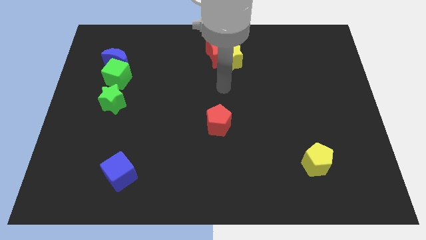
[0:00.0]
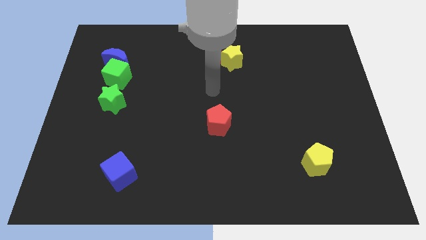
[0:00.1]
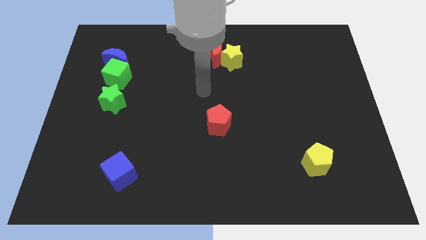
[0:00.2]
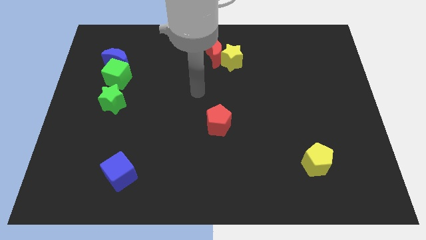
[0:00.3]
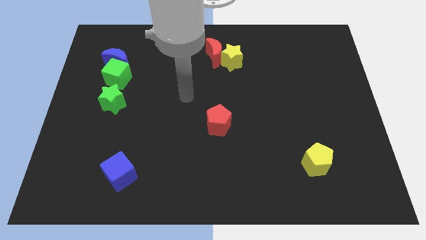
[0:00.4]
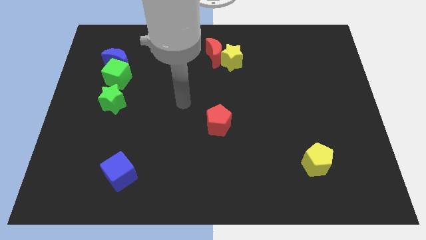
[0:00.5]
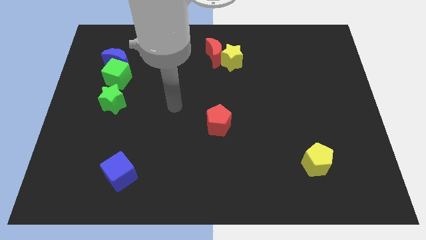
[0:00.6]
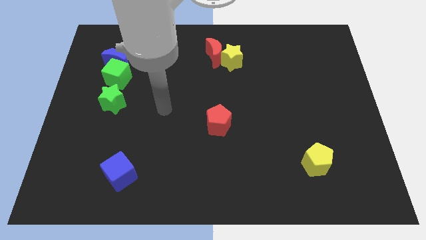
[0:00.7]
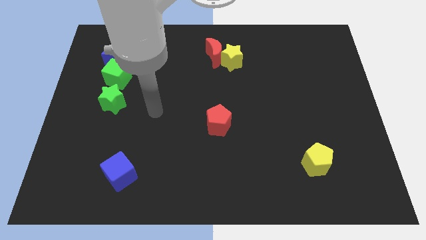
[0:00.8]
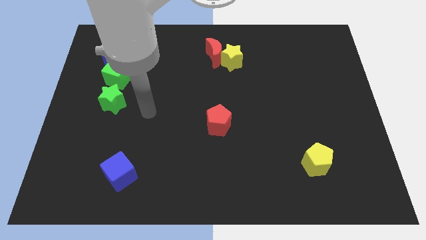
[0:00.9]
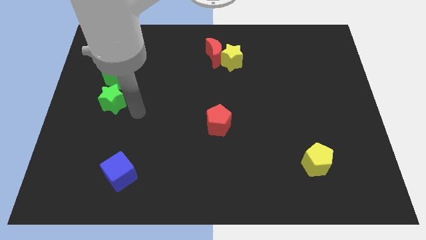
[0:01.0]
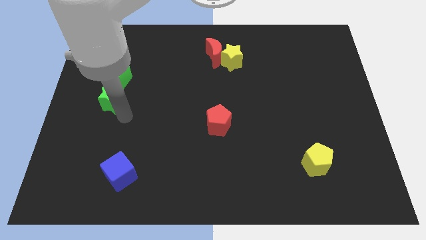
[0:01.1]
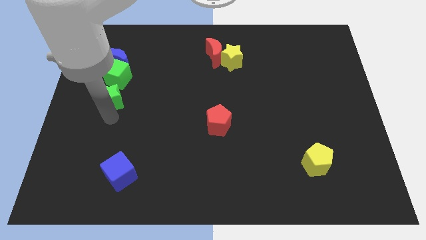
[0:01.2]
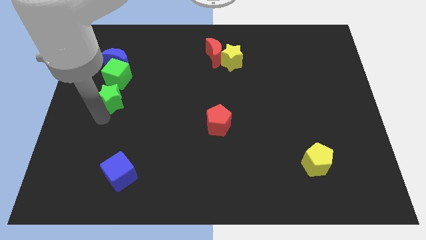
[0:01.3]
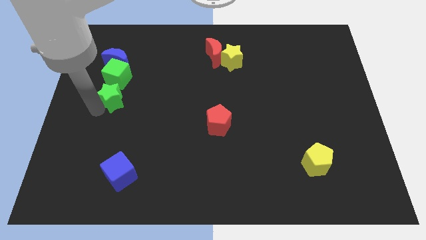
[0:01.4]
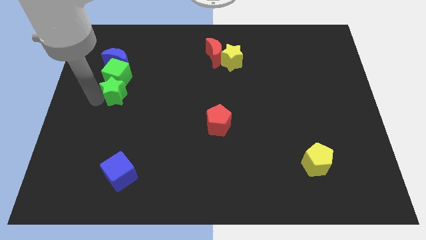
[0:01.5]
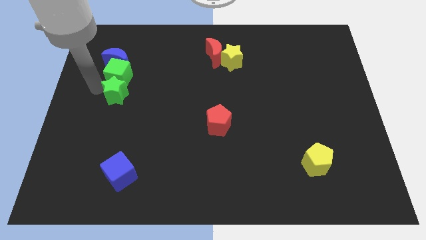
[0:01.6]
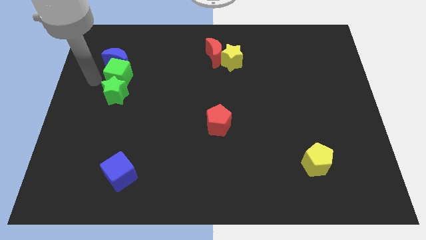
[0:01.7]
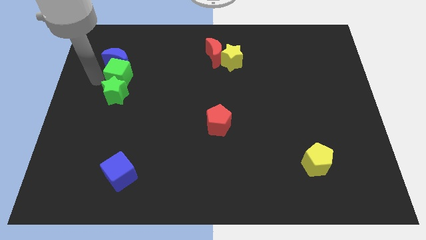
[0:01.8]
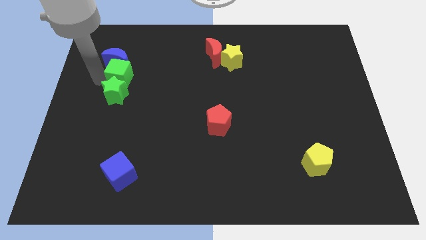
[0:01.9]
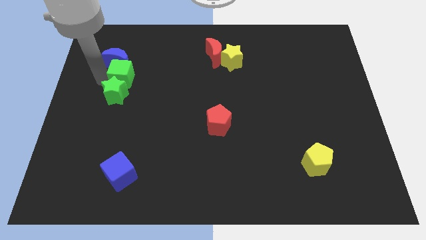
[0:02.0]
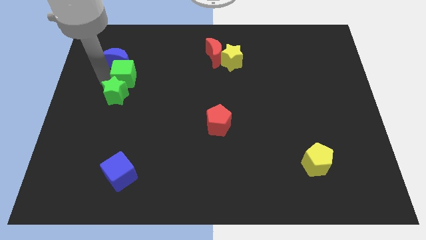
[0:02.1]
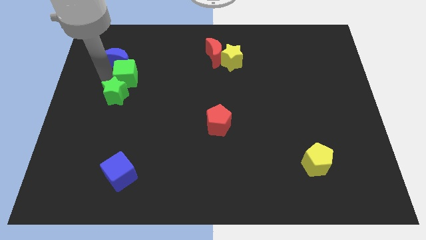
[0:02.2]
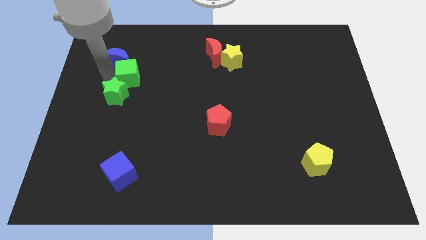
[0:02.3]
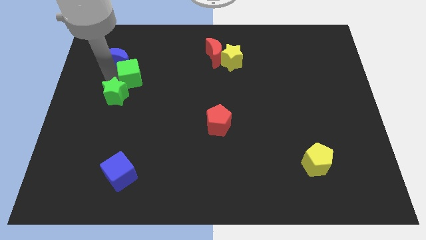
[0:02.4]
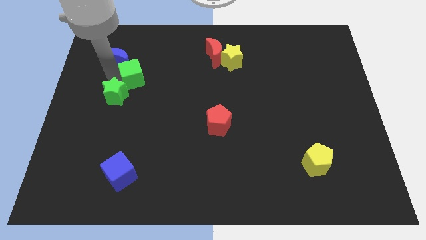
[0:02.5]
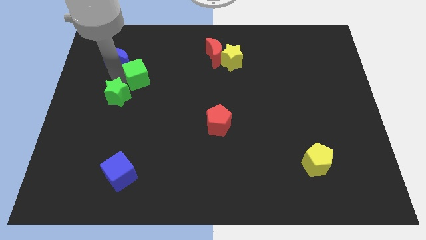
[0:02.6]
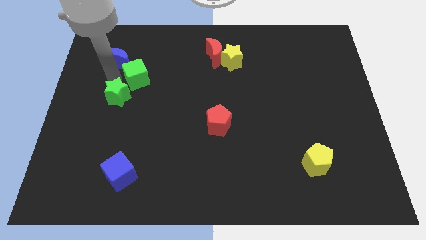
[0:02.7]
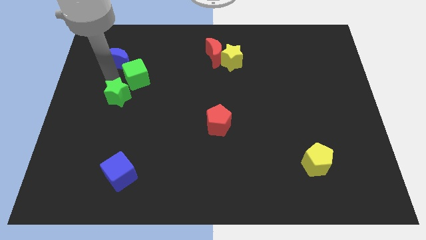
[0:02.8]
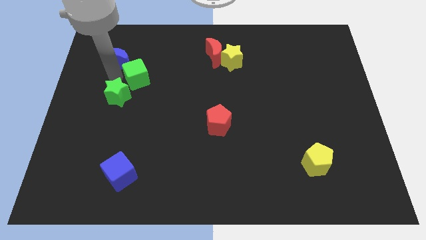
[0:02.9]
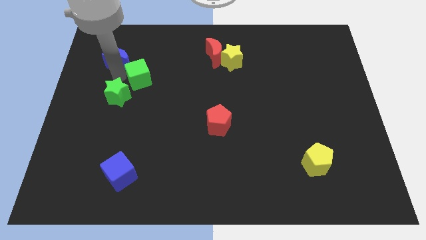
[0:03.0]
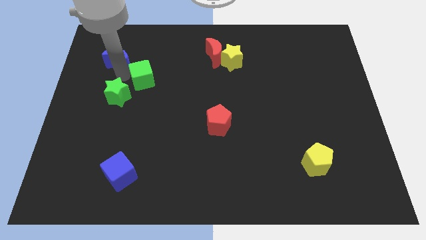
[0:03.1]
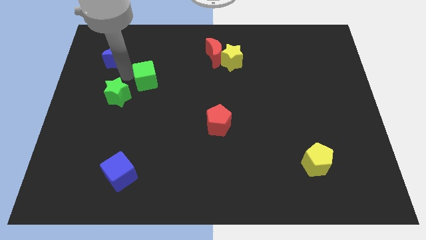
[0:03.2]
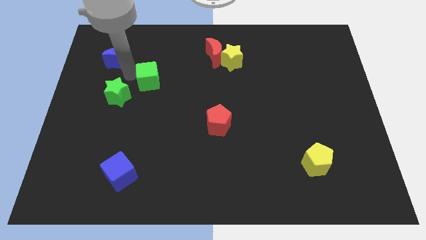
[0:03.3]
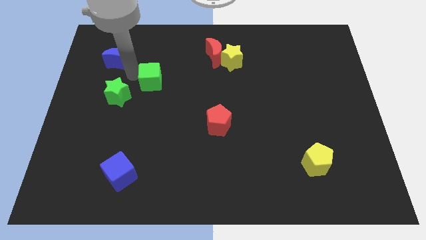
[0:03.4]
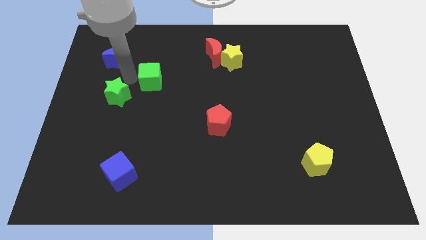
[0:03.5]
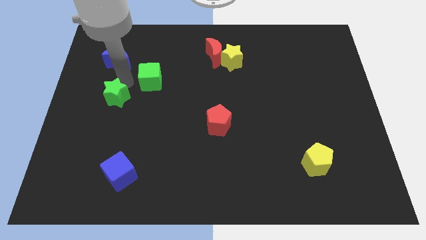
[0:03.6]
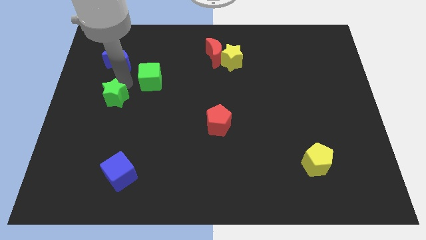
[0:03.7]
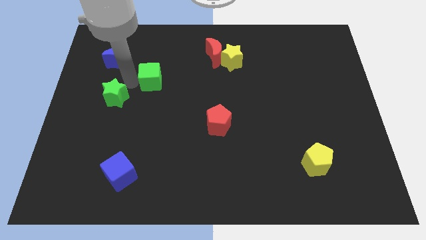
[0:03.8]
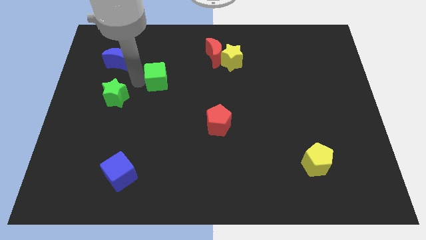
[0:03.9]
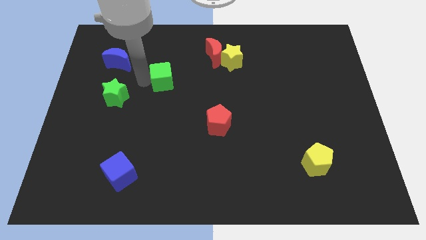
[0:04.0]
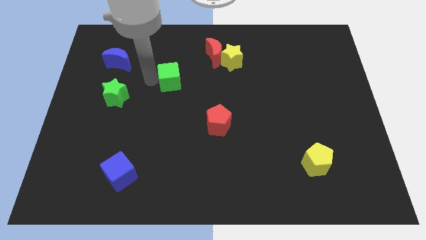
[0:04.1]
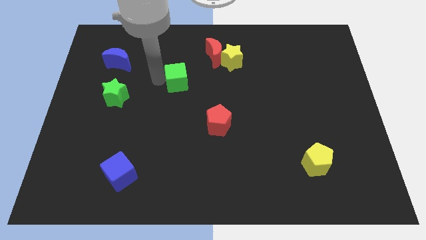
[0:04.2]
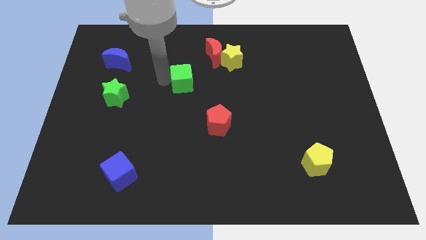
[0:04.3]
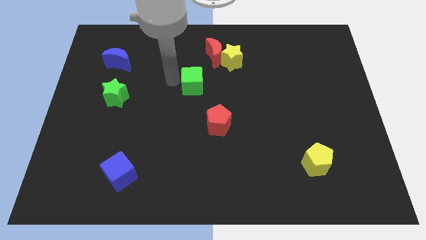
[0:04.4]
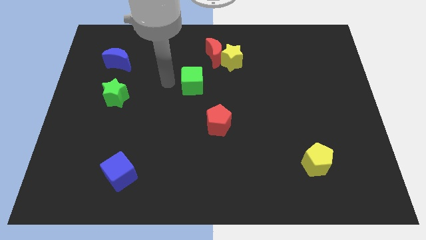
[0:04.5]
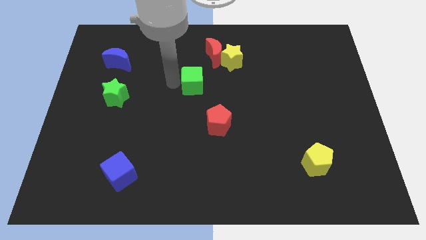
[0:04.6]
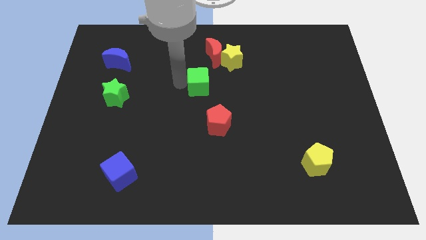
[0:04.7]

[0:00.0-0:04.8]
put the green cube to the bottom of the red moon

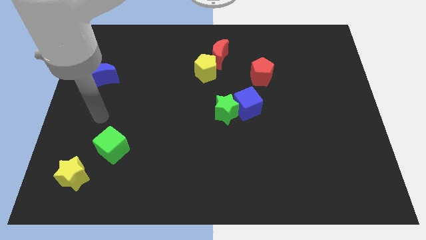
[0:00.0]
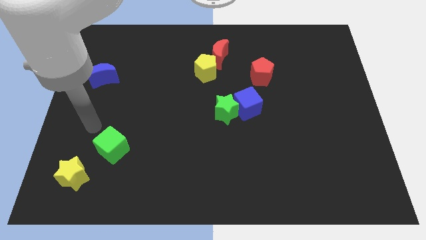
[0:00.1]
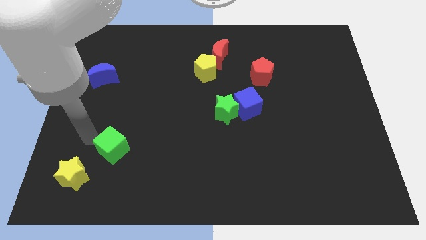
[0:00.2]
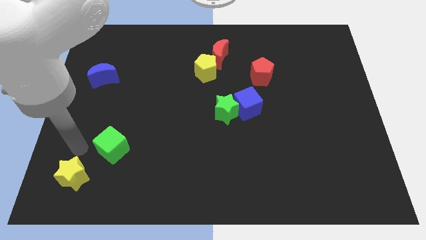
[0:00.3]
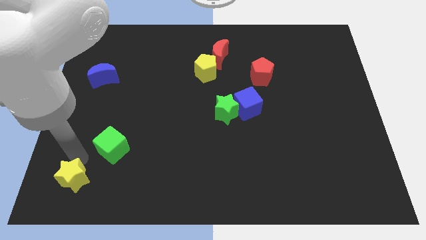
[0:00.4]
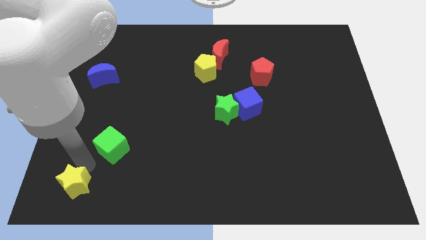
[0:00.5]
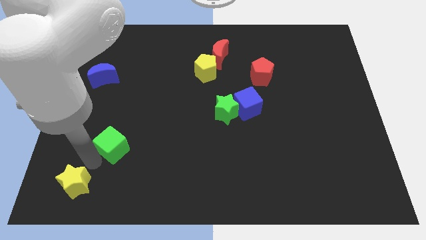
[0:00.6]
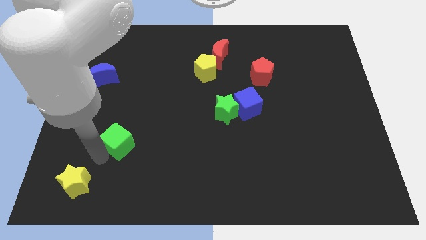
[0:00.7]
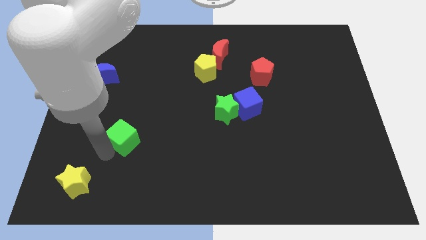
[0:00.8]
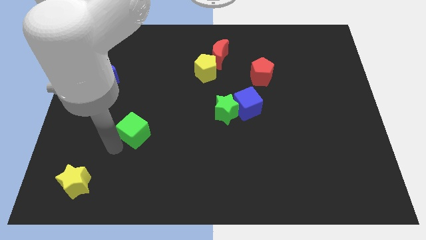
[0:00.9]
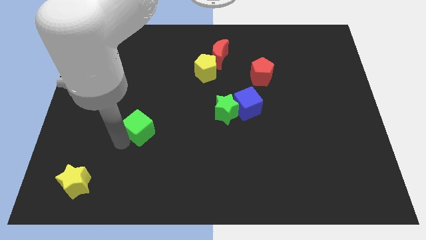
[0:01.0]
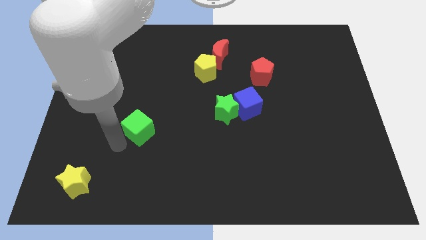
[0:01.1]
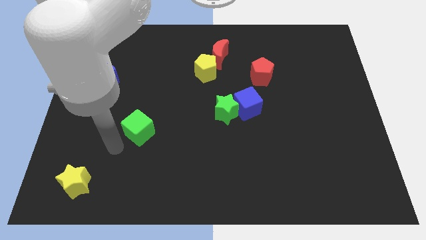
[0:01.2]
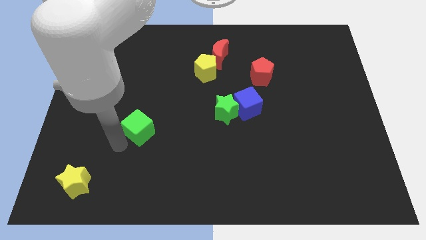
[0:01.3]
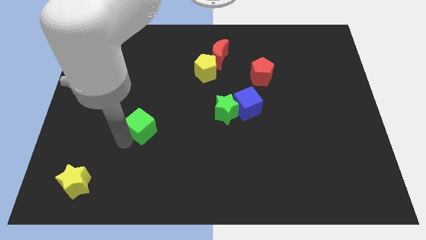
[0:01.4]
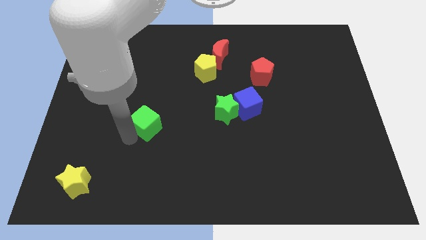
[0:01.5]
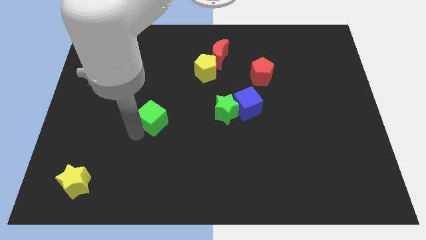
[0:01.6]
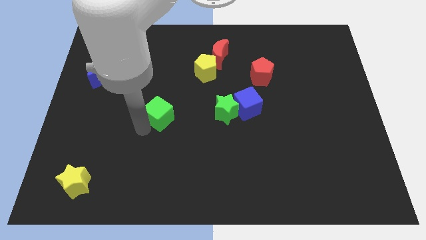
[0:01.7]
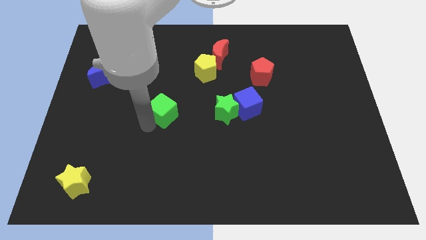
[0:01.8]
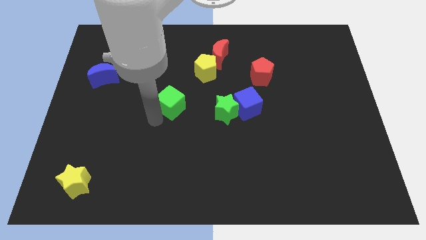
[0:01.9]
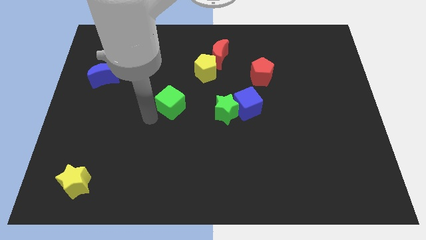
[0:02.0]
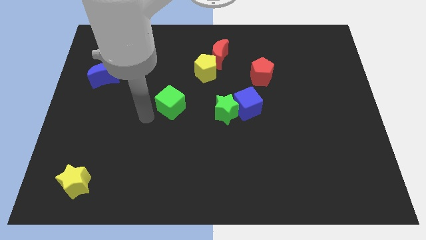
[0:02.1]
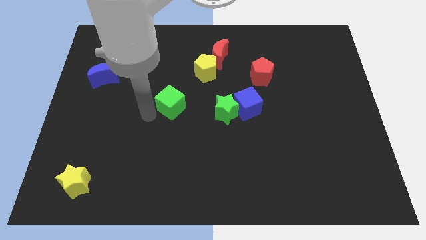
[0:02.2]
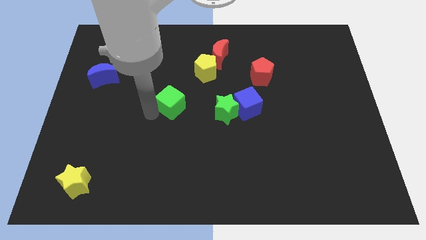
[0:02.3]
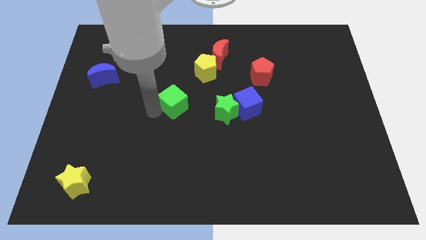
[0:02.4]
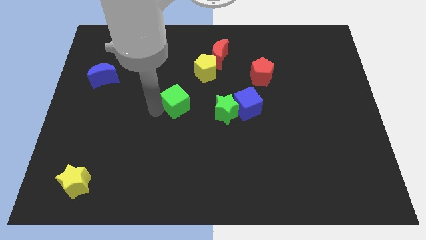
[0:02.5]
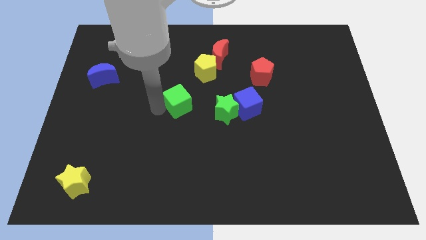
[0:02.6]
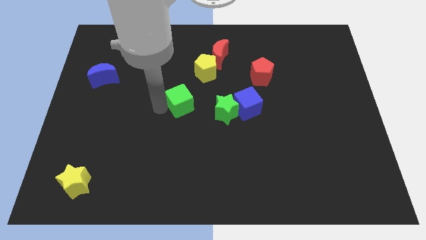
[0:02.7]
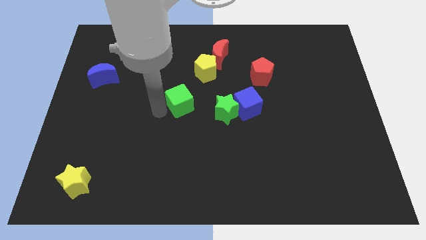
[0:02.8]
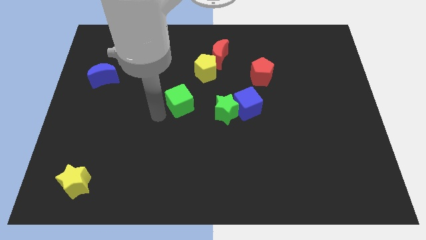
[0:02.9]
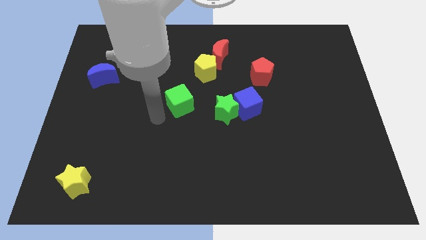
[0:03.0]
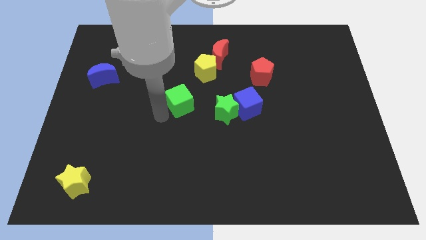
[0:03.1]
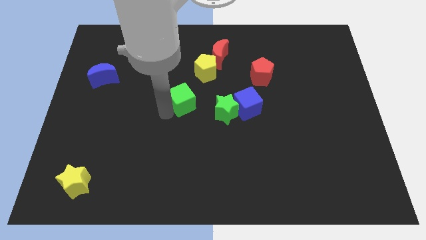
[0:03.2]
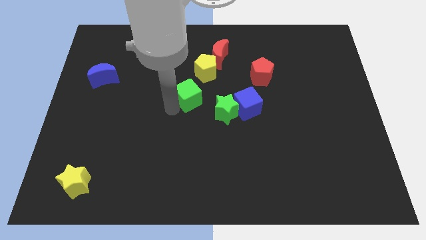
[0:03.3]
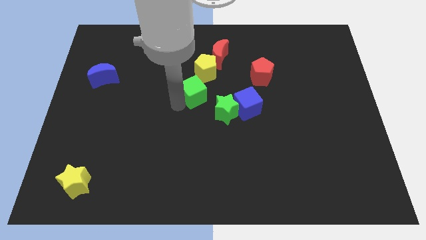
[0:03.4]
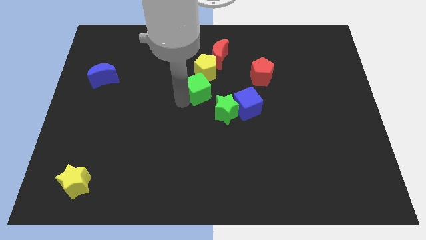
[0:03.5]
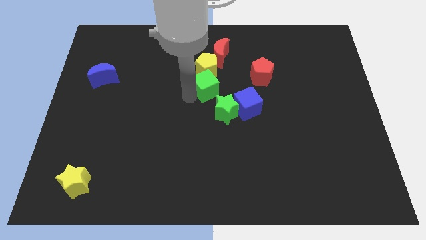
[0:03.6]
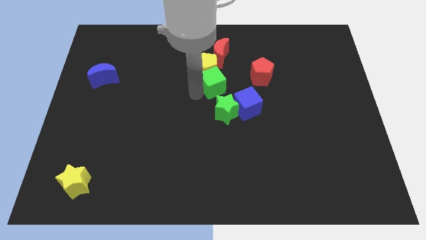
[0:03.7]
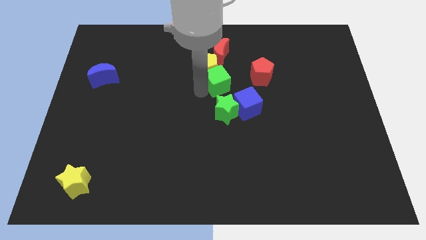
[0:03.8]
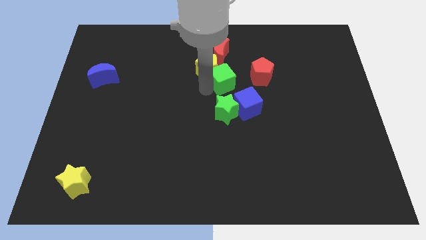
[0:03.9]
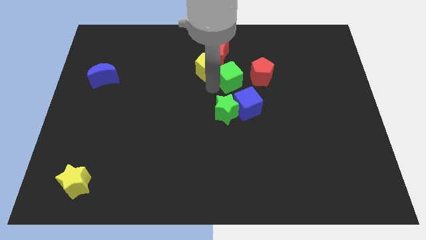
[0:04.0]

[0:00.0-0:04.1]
move the green cube diagonally down and to the right of the red moon
